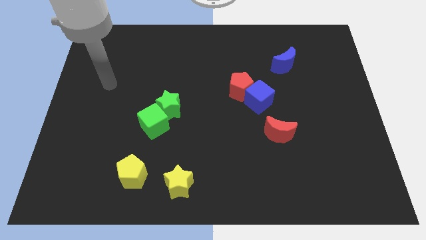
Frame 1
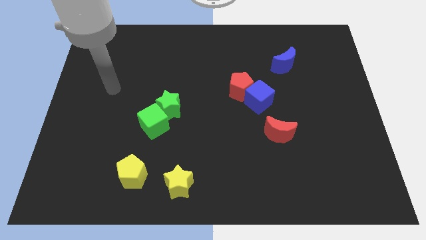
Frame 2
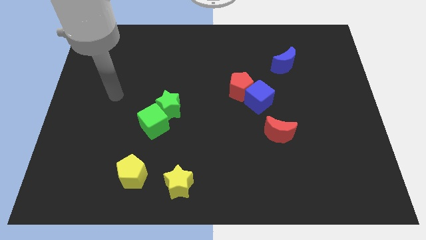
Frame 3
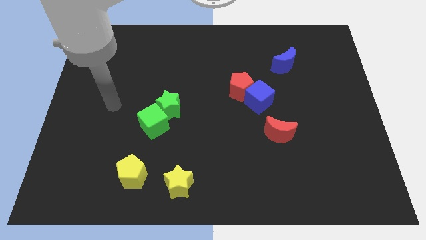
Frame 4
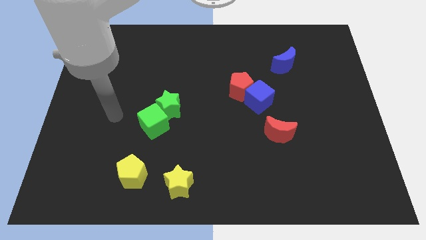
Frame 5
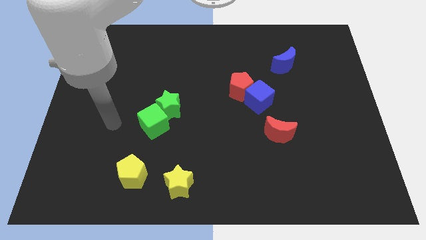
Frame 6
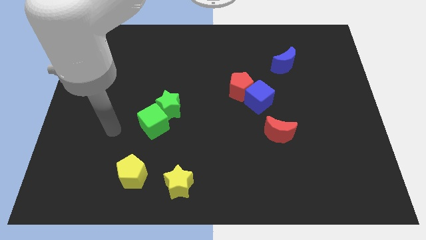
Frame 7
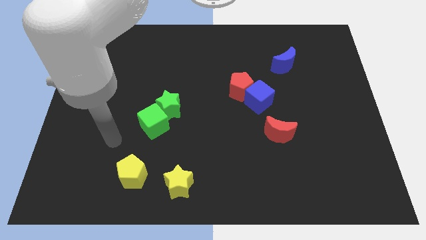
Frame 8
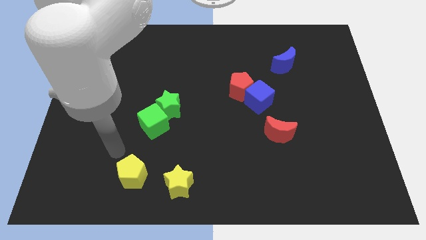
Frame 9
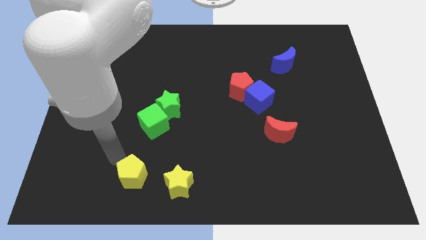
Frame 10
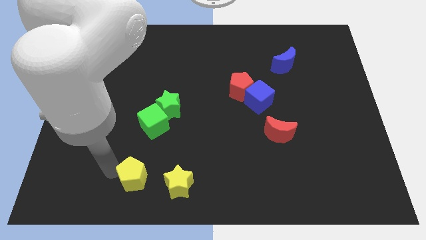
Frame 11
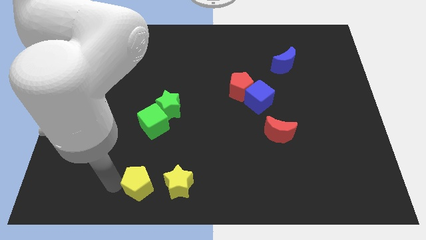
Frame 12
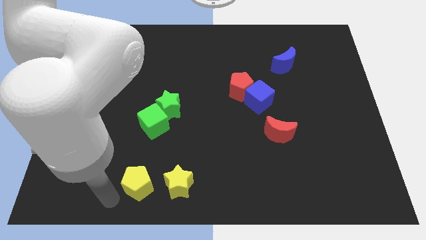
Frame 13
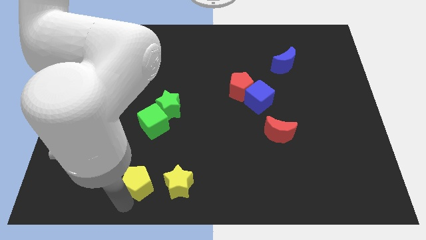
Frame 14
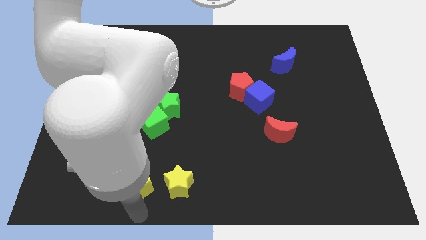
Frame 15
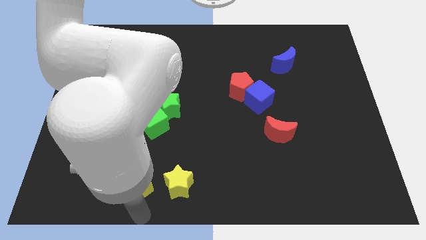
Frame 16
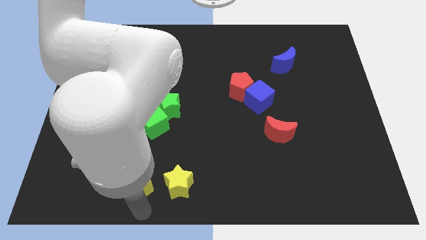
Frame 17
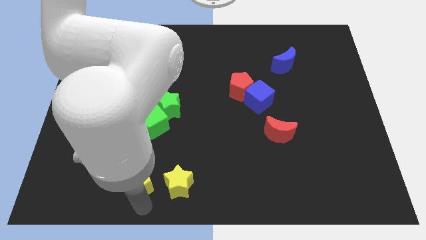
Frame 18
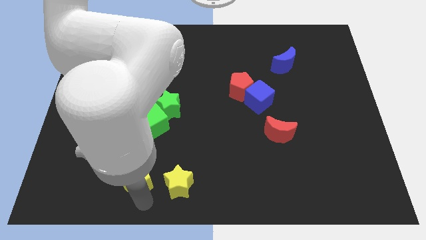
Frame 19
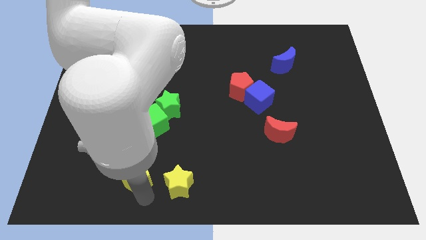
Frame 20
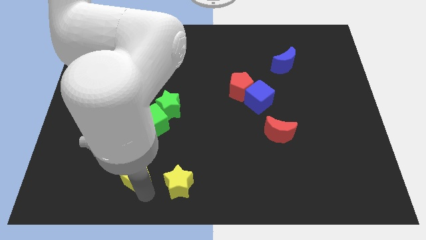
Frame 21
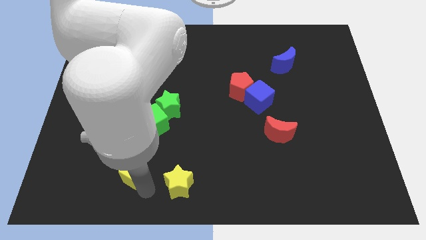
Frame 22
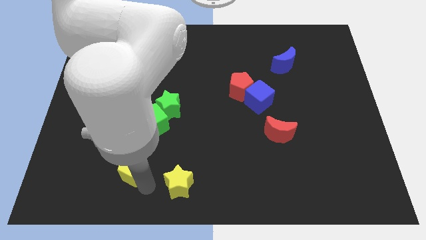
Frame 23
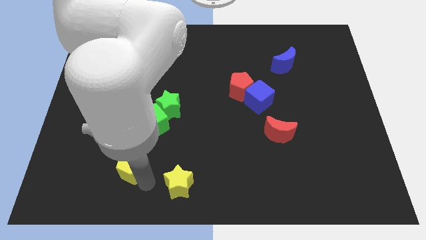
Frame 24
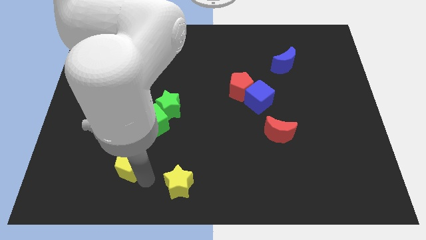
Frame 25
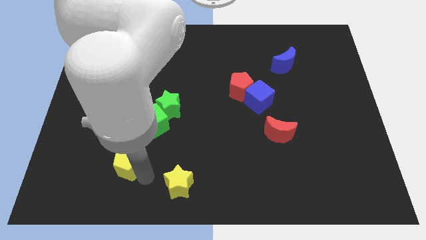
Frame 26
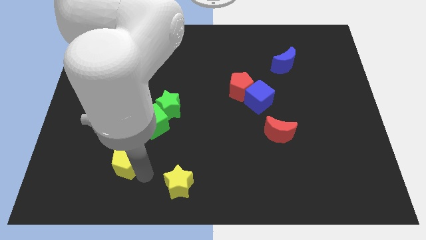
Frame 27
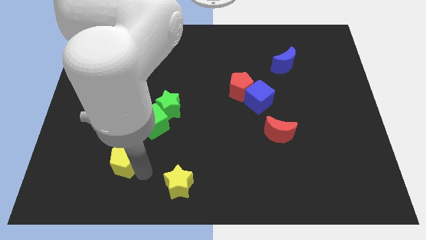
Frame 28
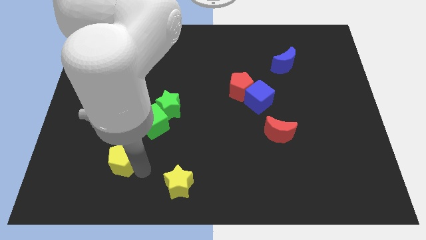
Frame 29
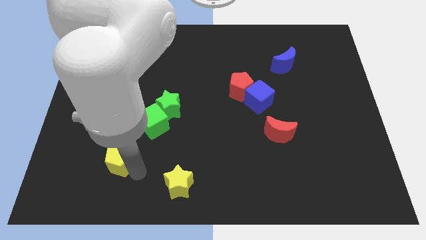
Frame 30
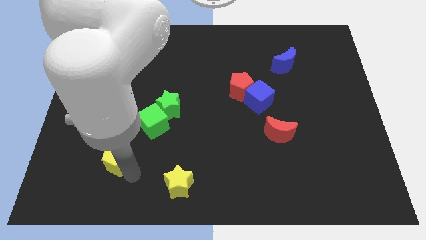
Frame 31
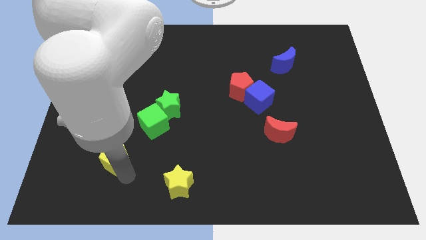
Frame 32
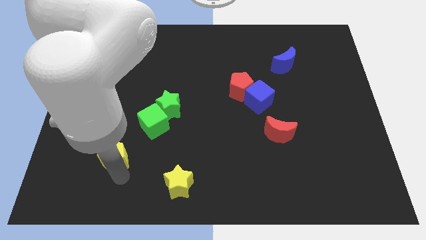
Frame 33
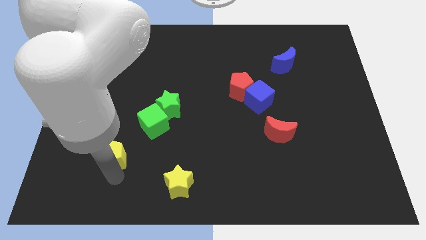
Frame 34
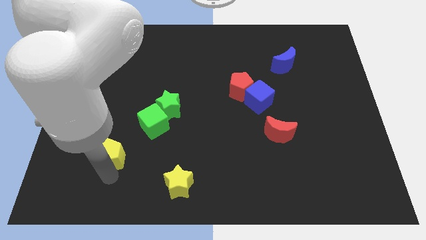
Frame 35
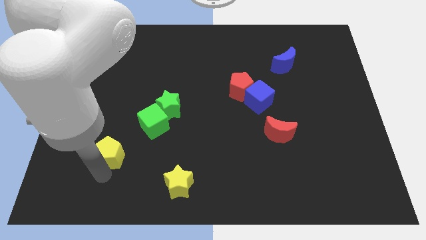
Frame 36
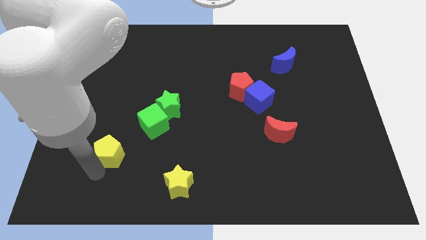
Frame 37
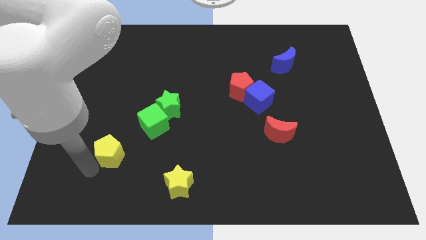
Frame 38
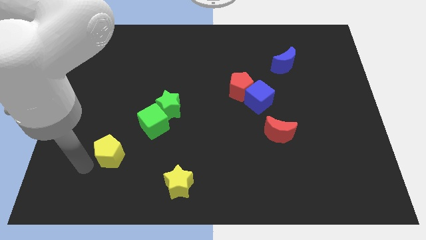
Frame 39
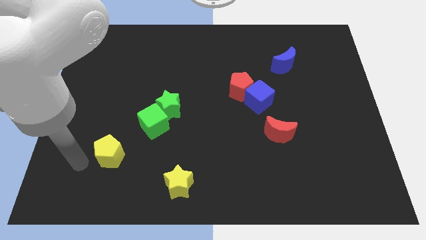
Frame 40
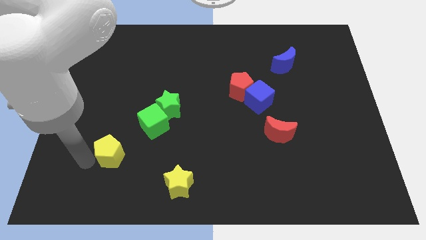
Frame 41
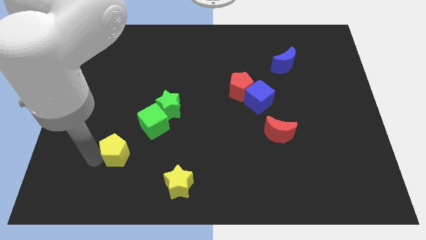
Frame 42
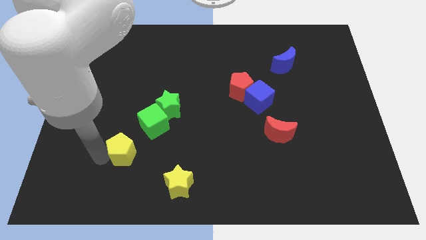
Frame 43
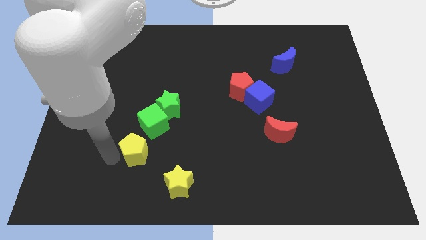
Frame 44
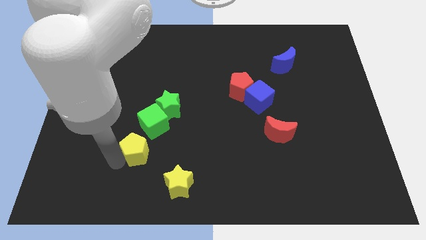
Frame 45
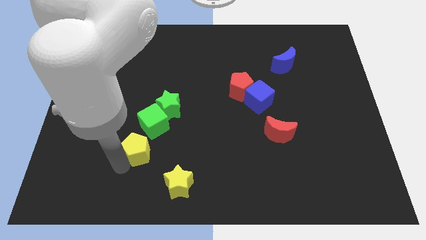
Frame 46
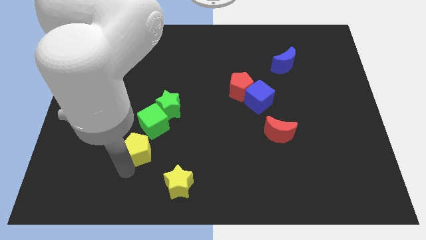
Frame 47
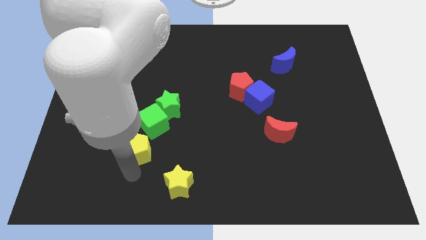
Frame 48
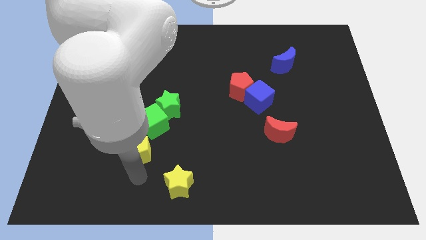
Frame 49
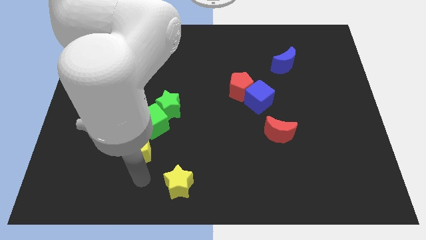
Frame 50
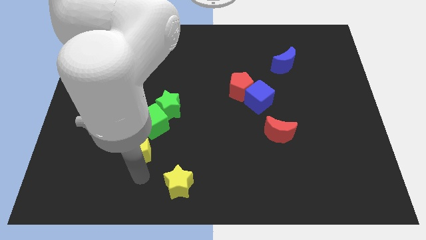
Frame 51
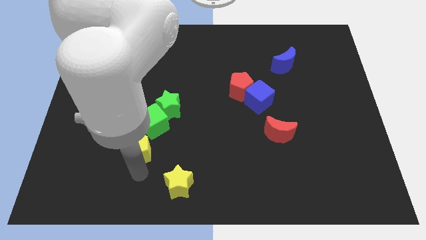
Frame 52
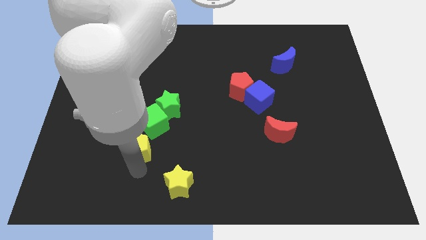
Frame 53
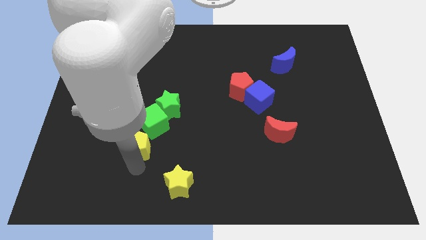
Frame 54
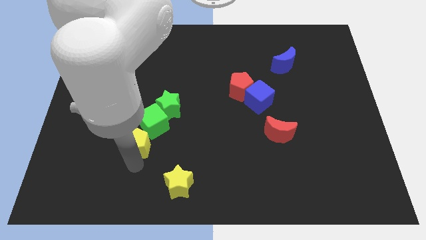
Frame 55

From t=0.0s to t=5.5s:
slide the yellow pentagon up a bit

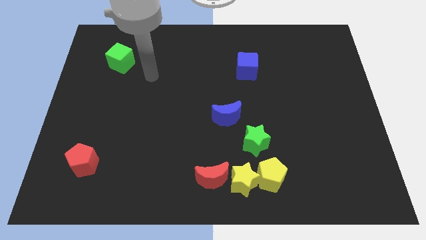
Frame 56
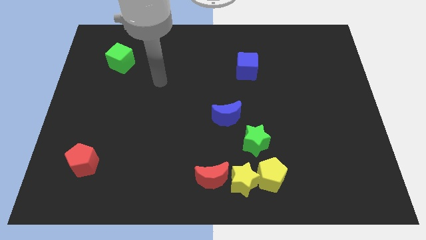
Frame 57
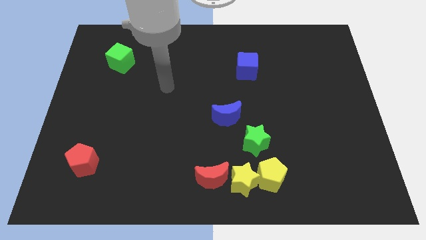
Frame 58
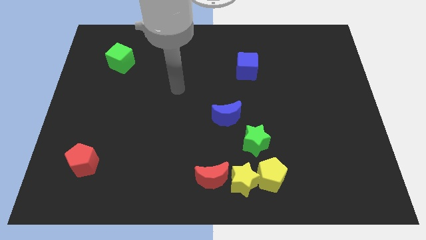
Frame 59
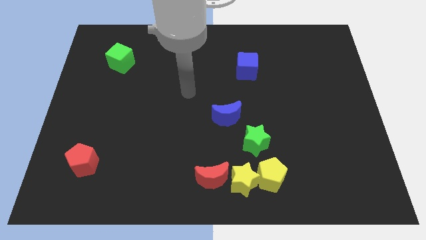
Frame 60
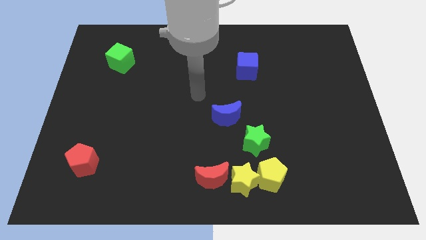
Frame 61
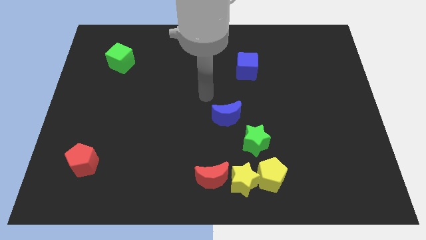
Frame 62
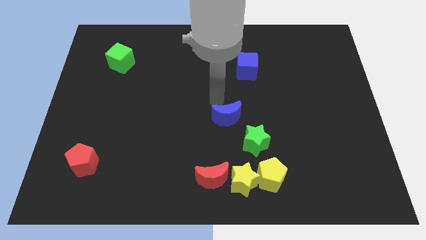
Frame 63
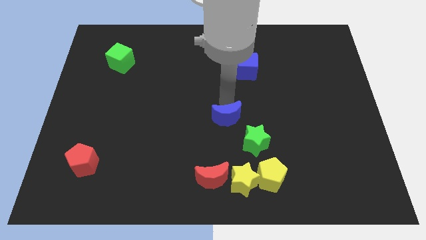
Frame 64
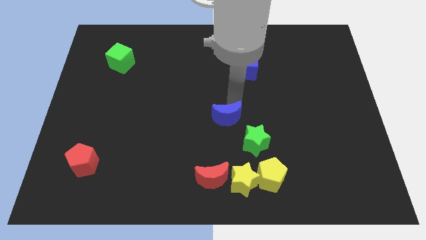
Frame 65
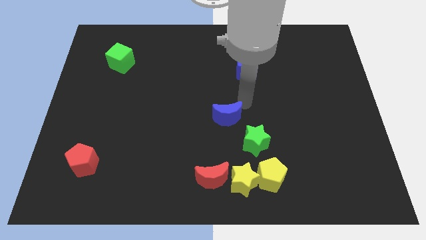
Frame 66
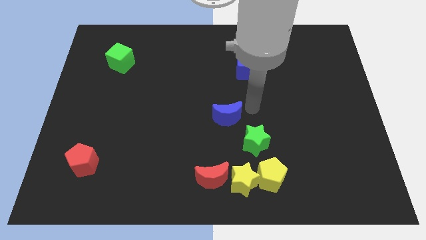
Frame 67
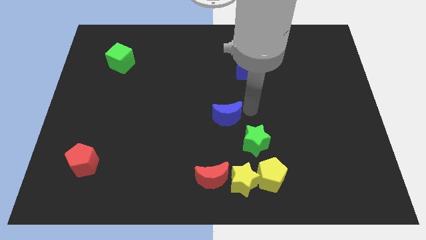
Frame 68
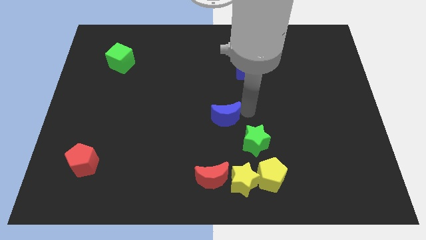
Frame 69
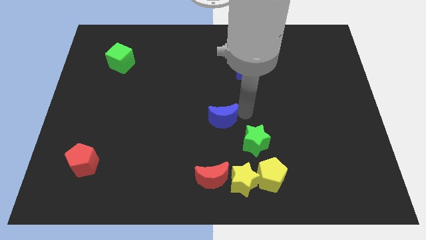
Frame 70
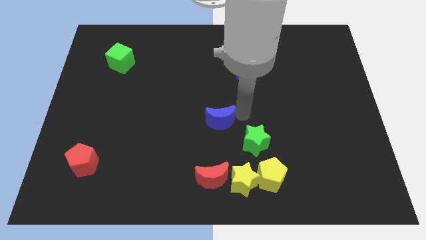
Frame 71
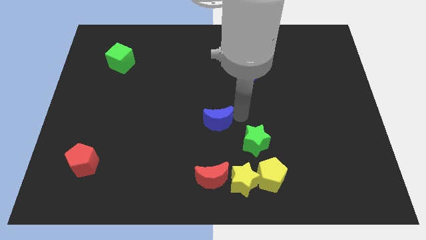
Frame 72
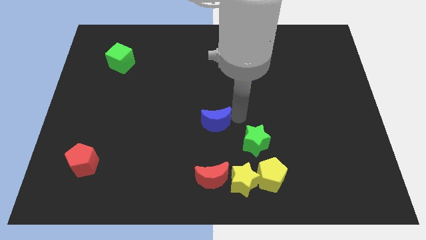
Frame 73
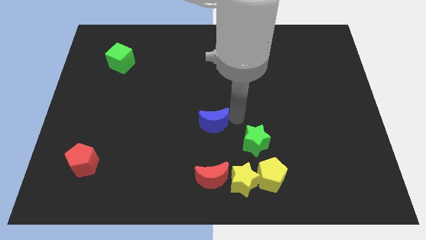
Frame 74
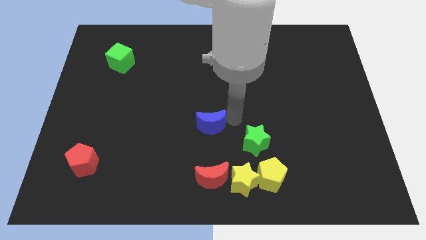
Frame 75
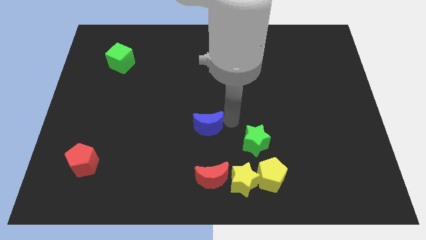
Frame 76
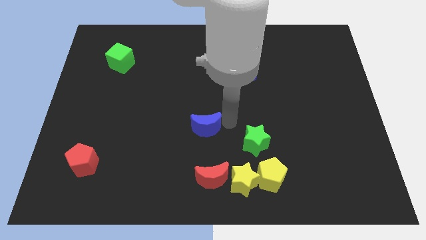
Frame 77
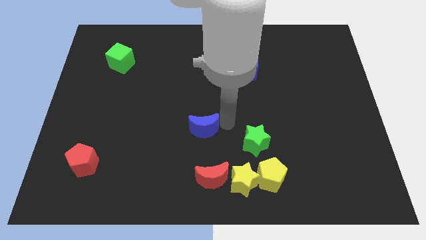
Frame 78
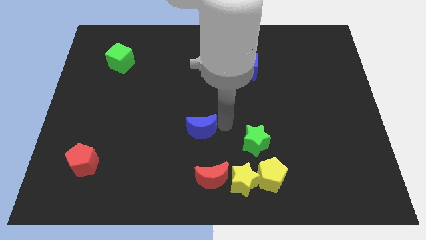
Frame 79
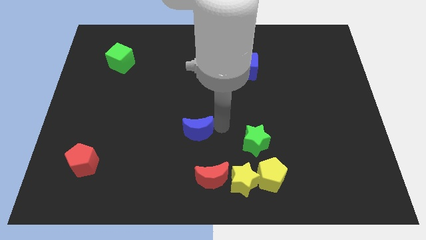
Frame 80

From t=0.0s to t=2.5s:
push the blue moon slightly diagonally down and to the left
